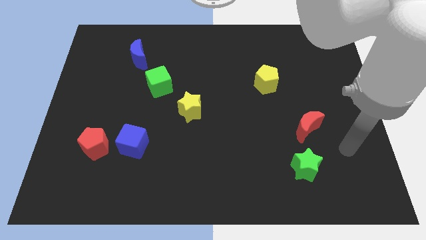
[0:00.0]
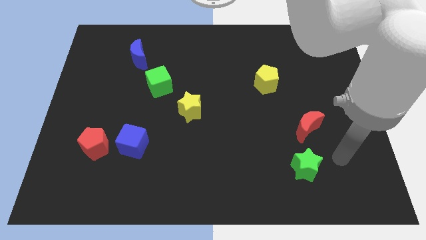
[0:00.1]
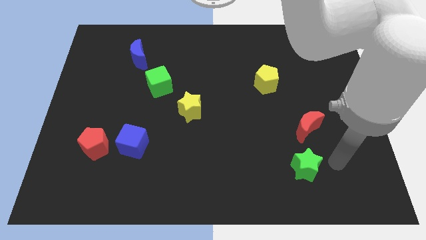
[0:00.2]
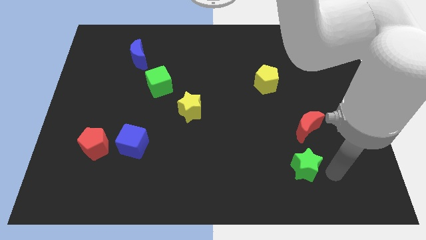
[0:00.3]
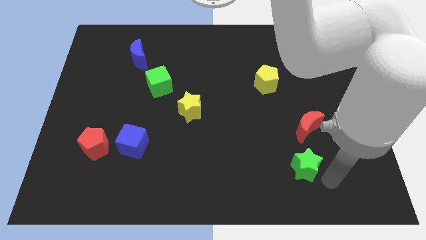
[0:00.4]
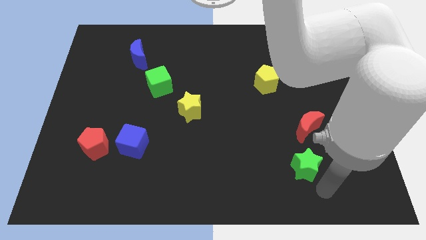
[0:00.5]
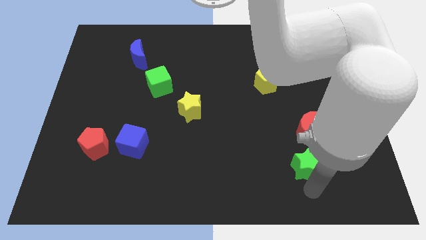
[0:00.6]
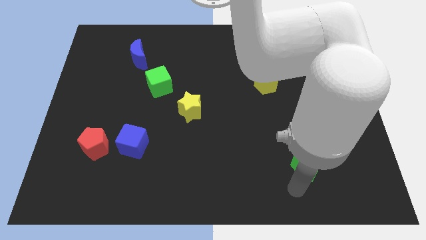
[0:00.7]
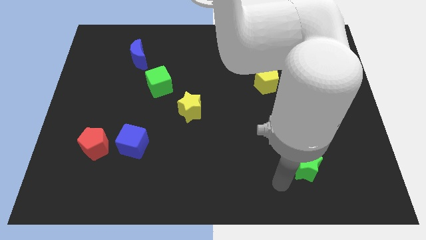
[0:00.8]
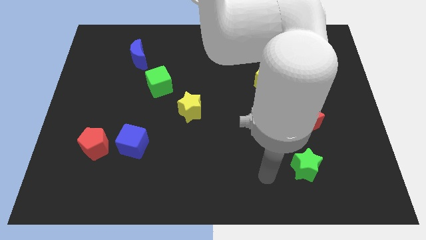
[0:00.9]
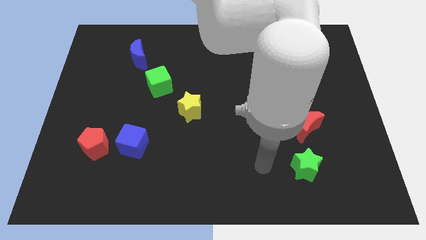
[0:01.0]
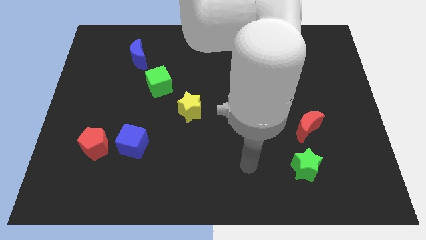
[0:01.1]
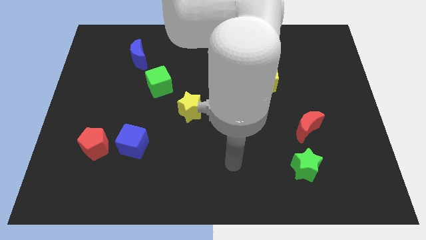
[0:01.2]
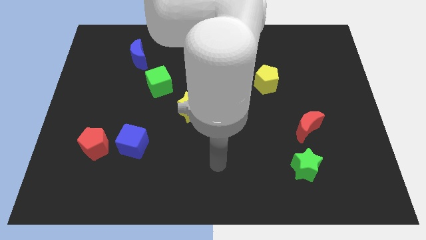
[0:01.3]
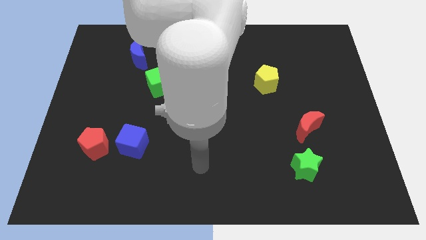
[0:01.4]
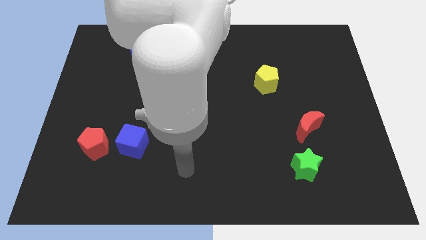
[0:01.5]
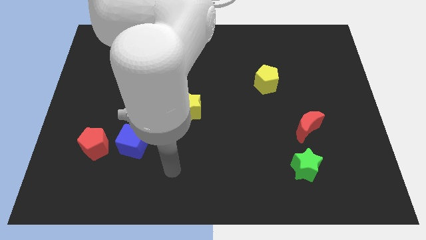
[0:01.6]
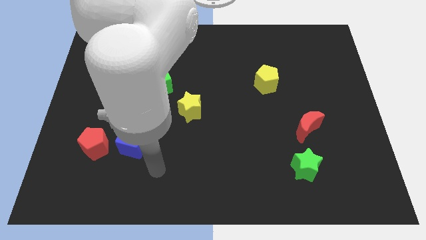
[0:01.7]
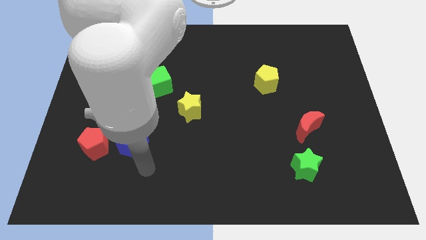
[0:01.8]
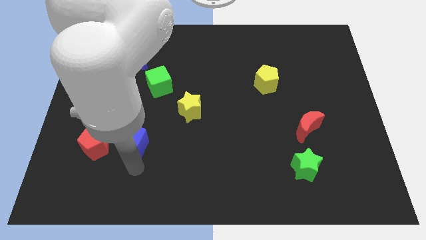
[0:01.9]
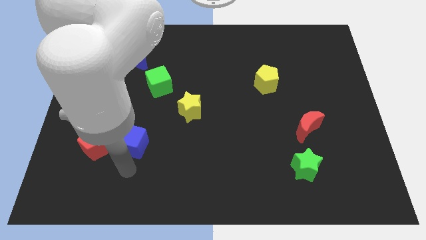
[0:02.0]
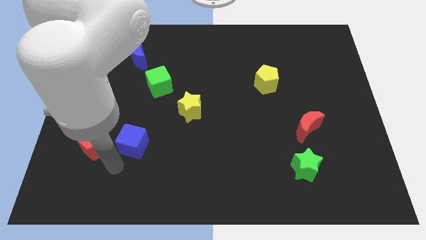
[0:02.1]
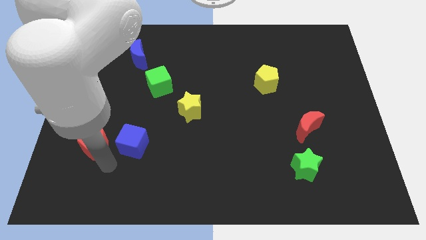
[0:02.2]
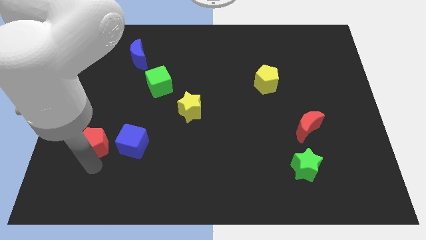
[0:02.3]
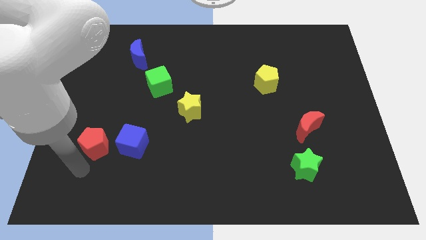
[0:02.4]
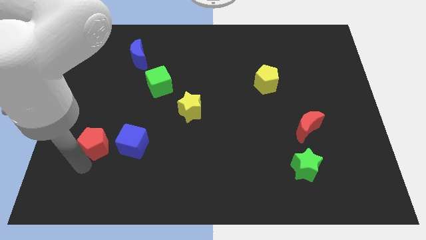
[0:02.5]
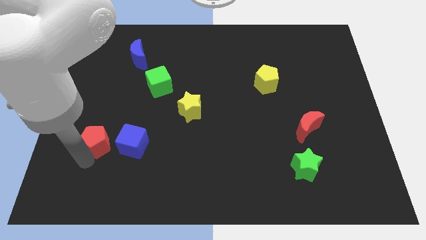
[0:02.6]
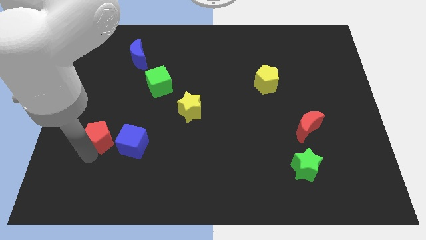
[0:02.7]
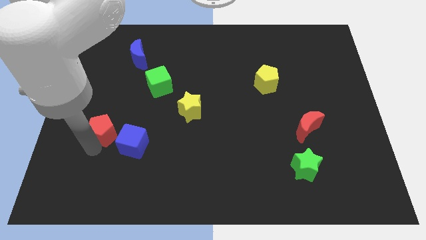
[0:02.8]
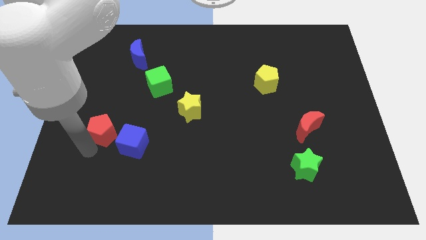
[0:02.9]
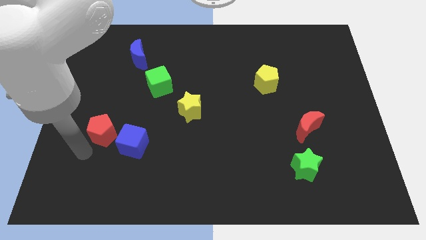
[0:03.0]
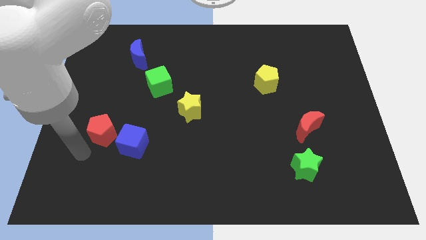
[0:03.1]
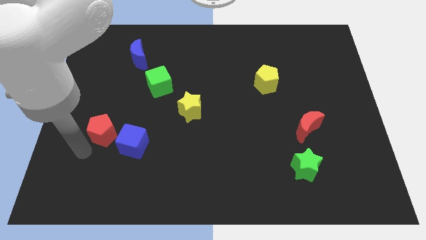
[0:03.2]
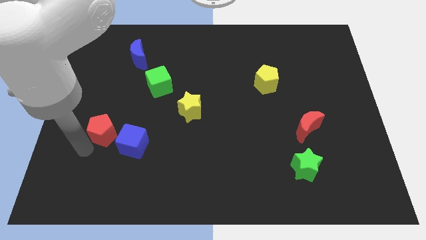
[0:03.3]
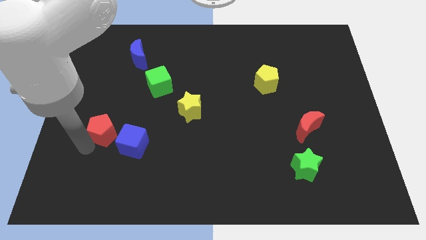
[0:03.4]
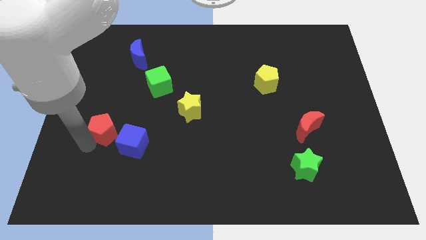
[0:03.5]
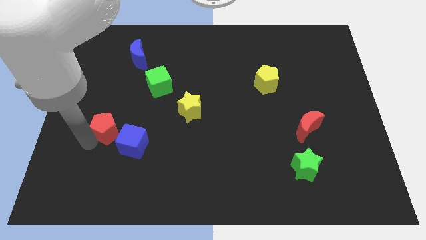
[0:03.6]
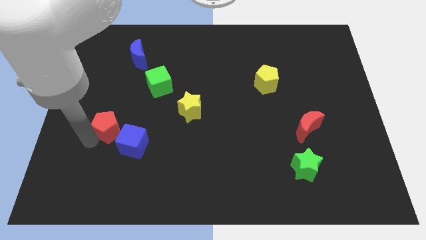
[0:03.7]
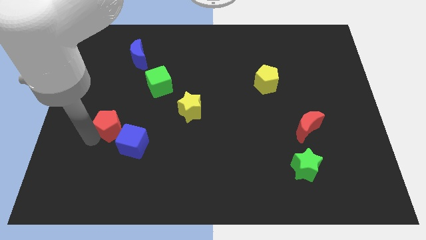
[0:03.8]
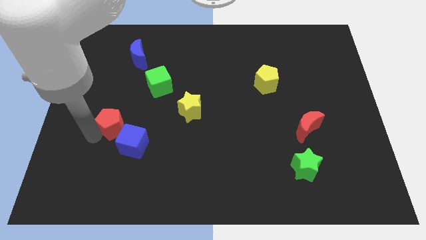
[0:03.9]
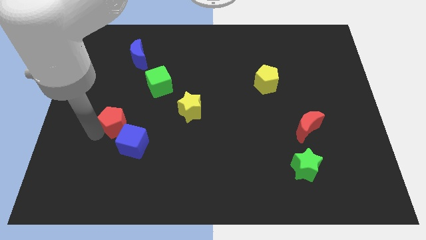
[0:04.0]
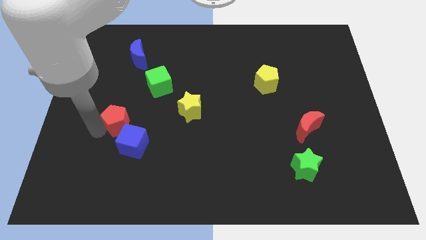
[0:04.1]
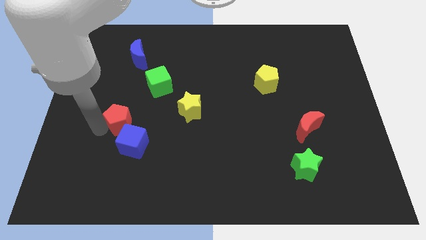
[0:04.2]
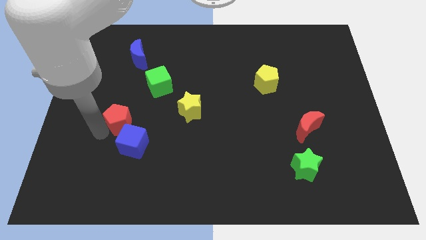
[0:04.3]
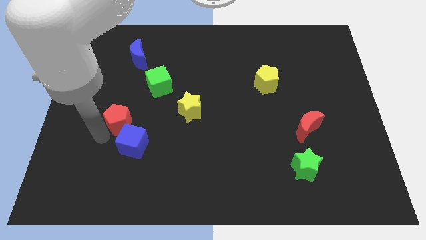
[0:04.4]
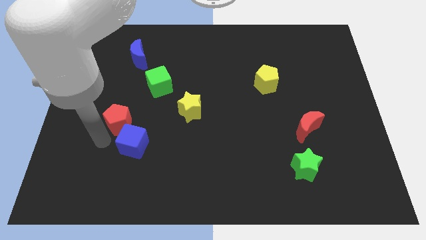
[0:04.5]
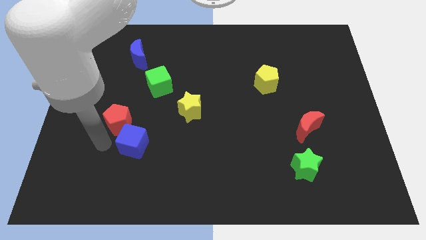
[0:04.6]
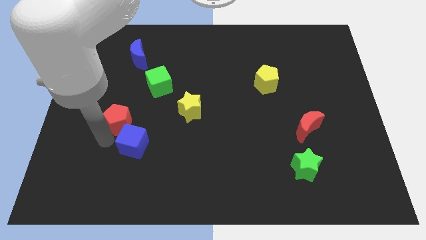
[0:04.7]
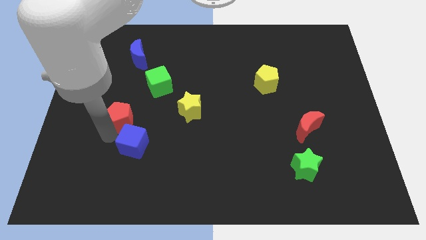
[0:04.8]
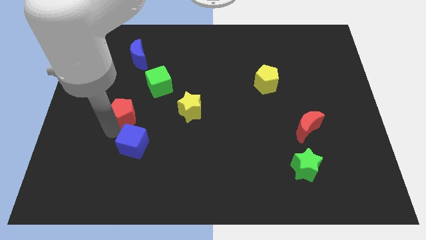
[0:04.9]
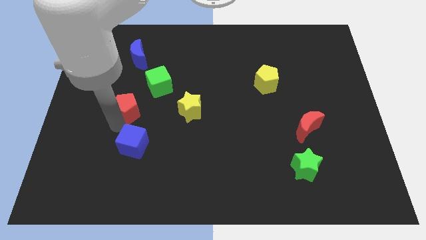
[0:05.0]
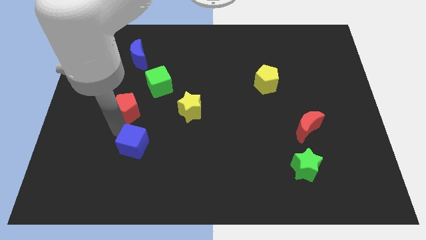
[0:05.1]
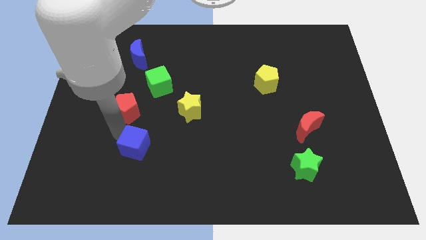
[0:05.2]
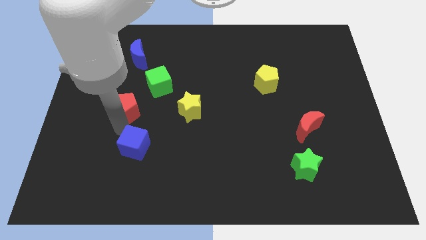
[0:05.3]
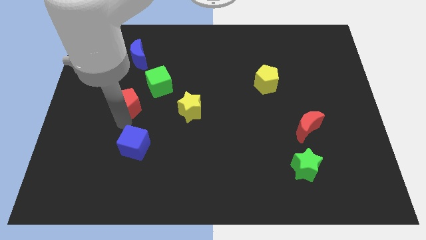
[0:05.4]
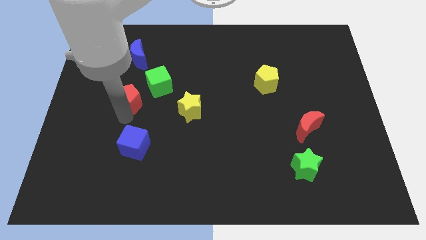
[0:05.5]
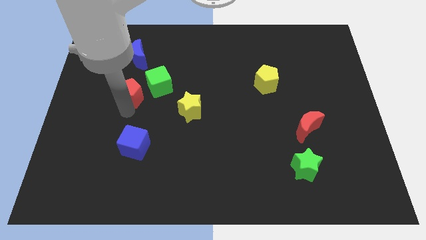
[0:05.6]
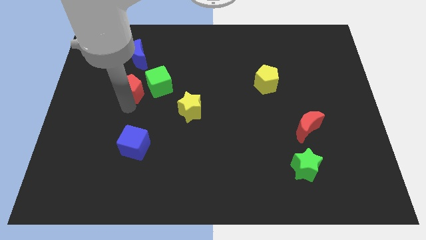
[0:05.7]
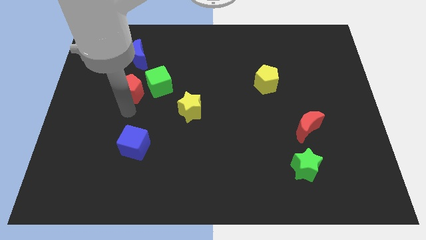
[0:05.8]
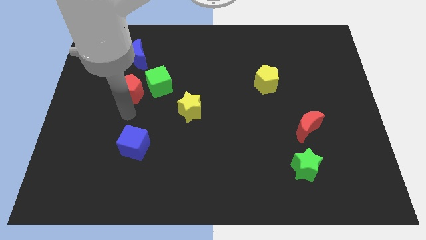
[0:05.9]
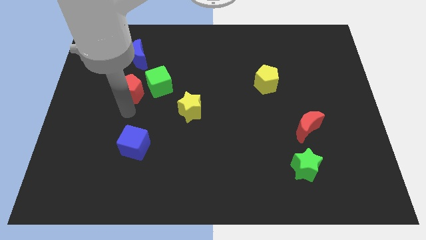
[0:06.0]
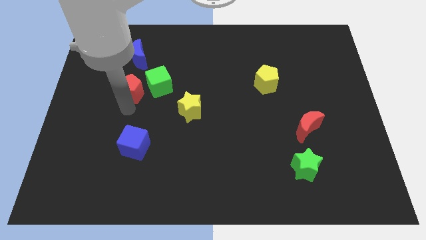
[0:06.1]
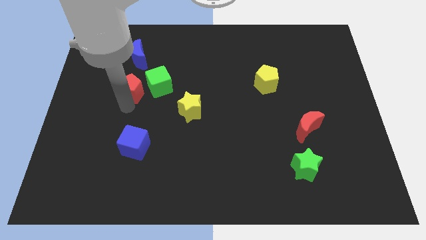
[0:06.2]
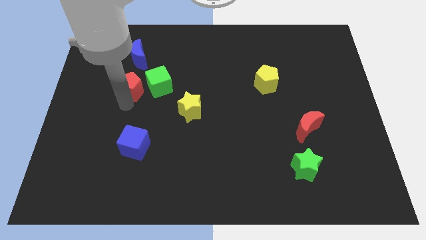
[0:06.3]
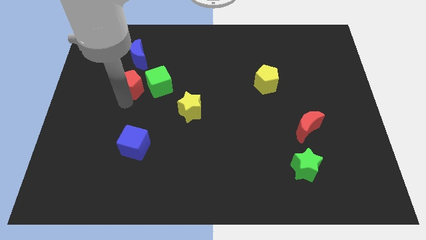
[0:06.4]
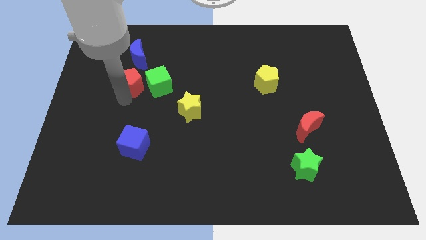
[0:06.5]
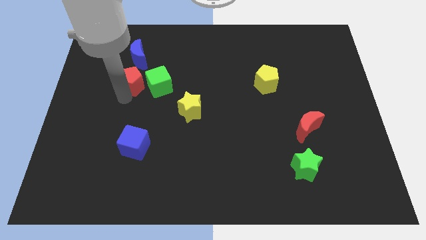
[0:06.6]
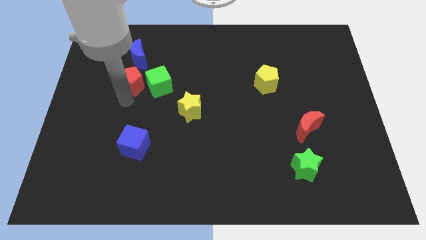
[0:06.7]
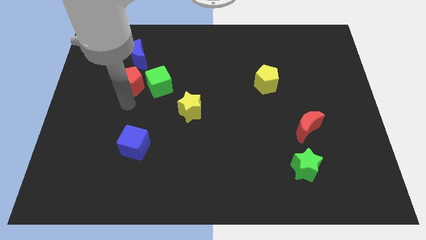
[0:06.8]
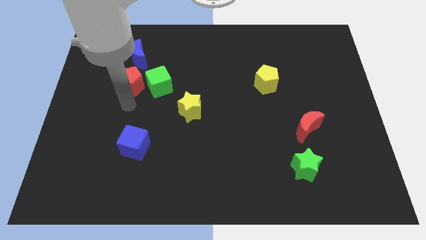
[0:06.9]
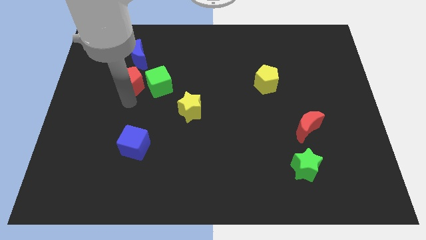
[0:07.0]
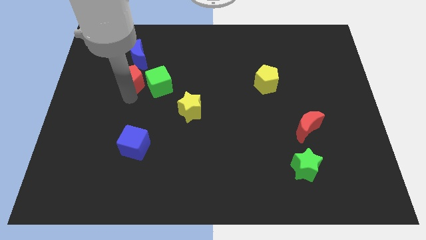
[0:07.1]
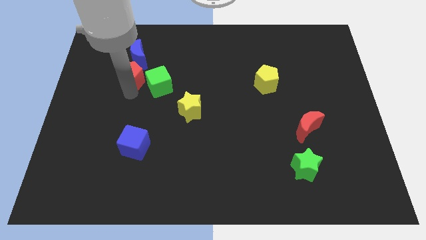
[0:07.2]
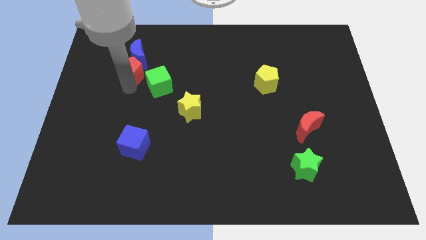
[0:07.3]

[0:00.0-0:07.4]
push the red pentagon diagonally down and to the right of the blue moon
